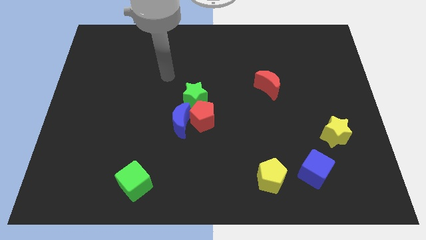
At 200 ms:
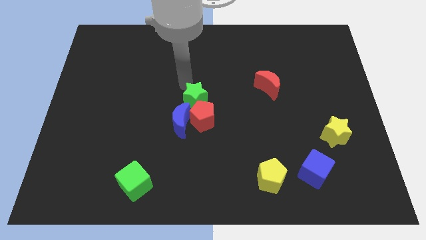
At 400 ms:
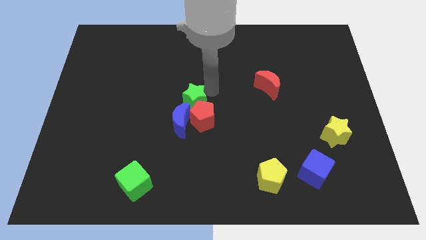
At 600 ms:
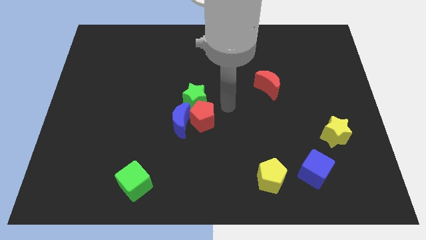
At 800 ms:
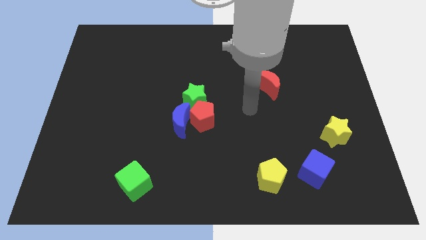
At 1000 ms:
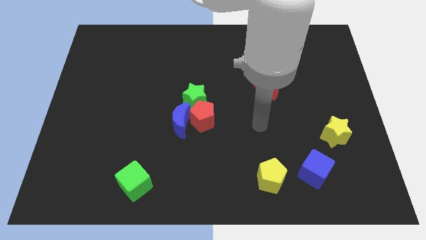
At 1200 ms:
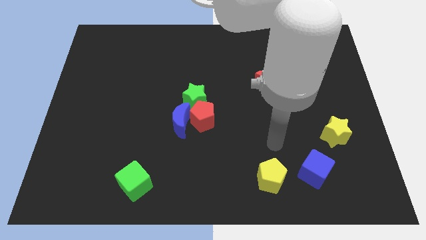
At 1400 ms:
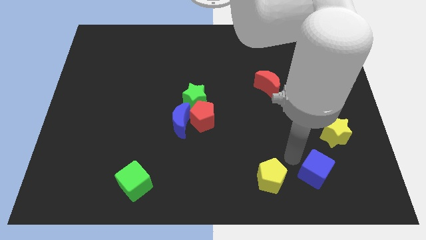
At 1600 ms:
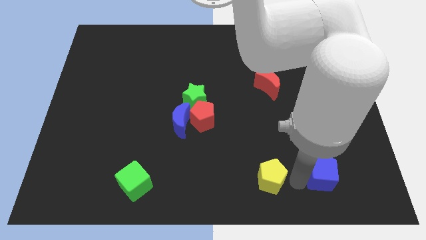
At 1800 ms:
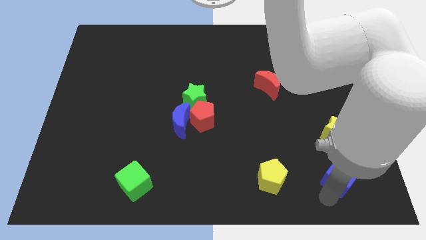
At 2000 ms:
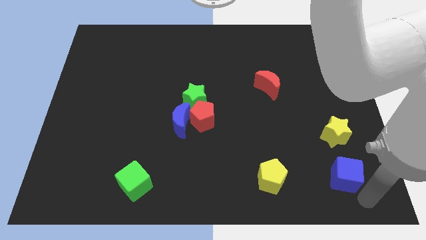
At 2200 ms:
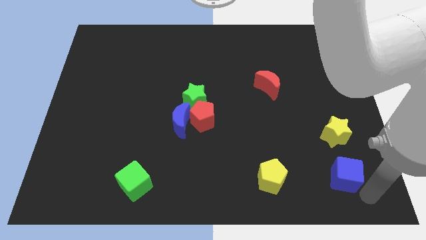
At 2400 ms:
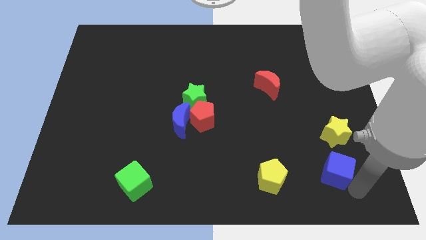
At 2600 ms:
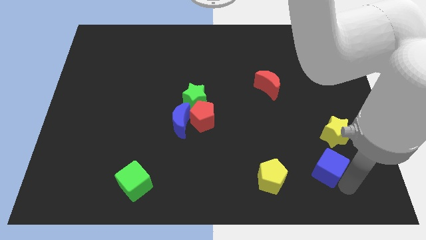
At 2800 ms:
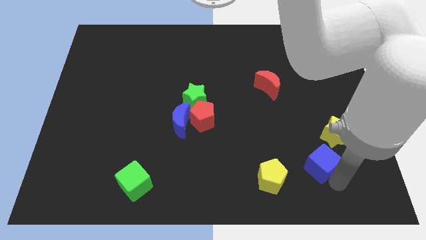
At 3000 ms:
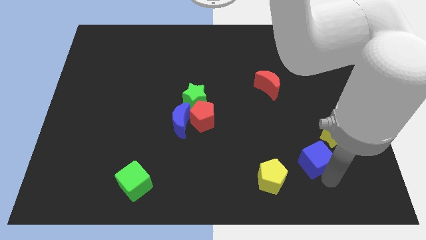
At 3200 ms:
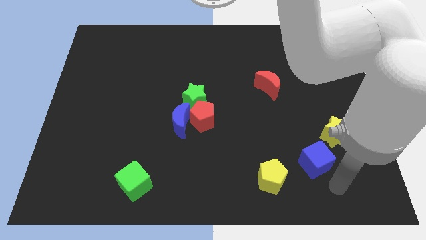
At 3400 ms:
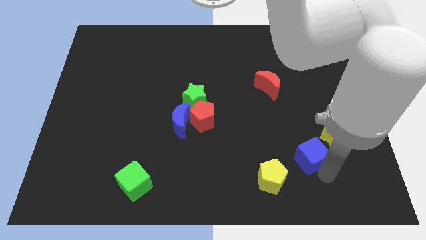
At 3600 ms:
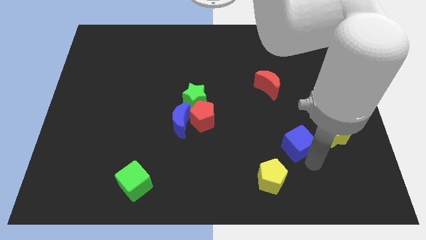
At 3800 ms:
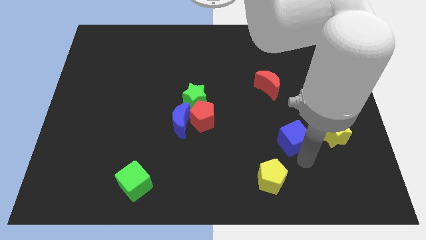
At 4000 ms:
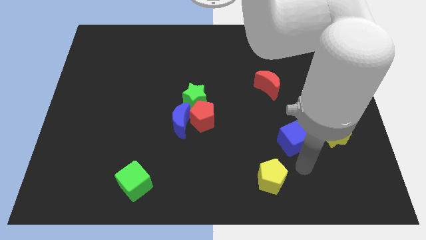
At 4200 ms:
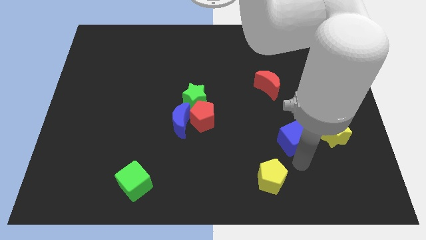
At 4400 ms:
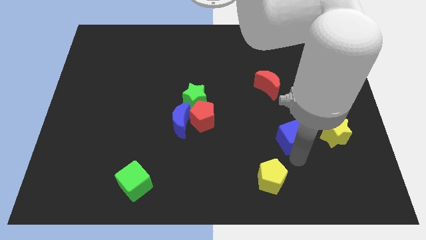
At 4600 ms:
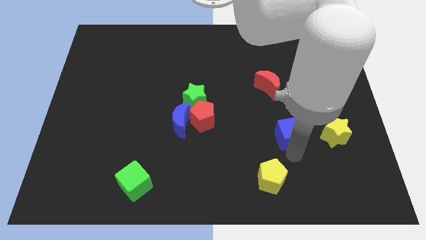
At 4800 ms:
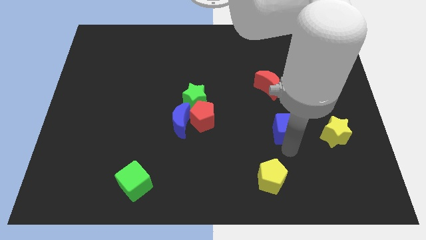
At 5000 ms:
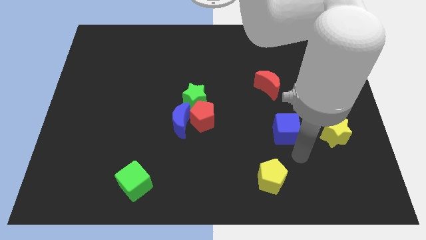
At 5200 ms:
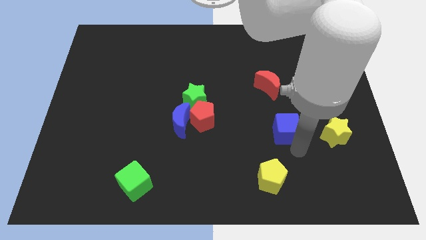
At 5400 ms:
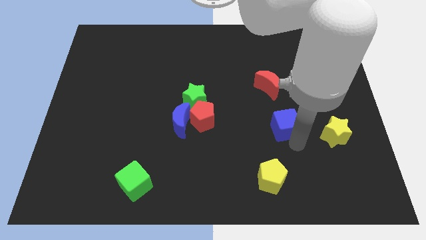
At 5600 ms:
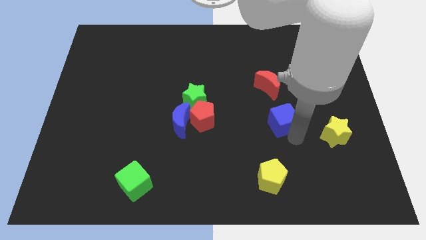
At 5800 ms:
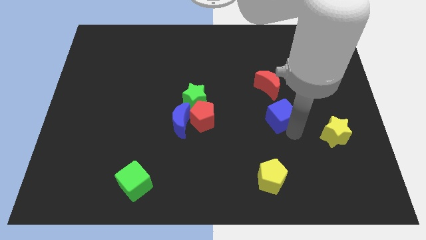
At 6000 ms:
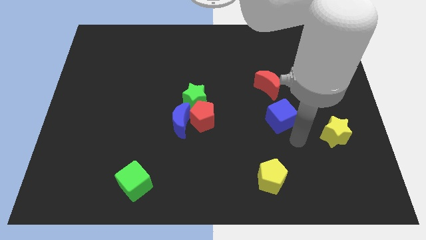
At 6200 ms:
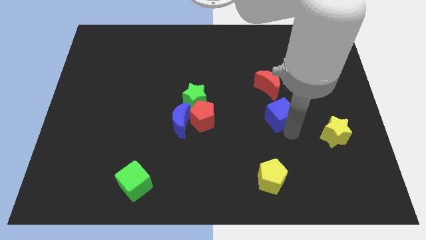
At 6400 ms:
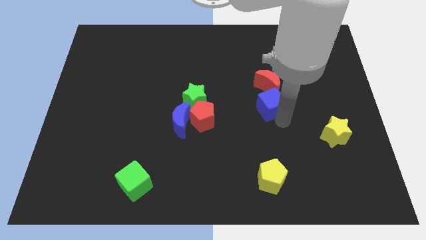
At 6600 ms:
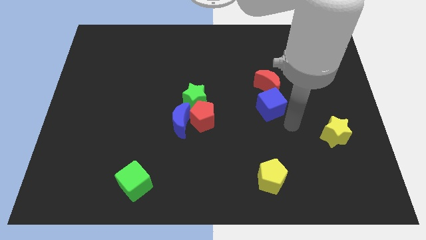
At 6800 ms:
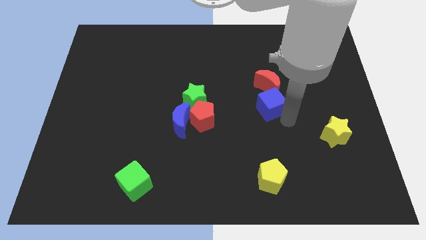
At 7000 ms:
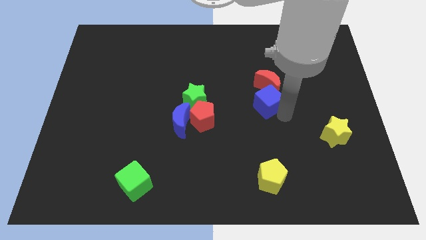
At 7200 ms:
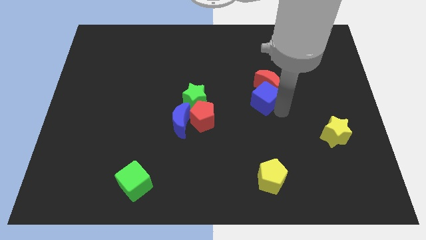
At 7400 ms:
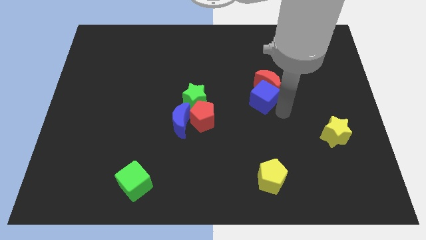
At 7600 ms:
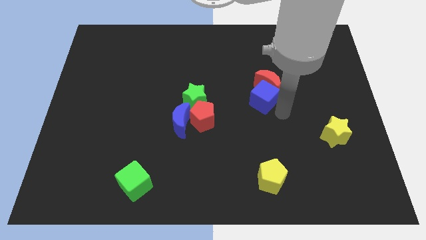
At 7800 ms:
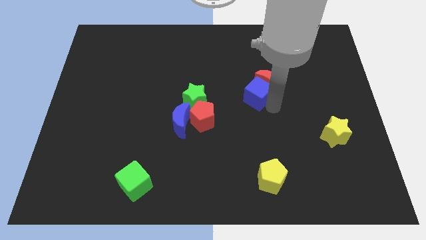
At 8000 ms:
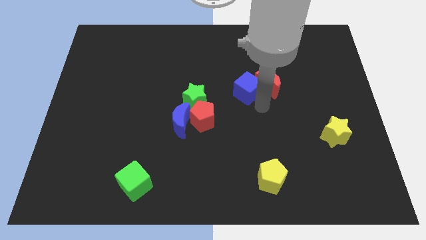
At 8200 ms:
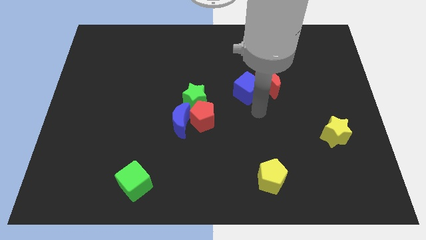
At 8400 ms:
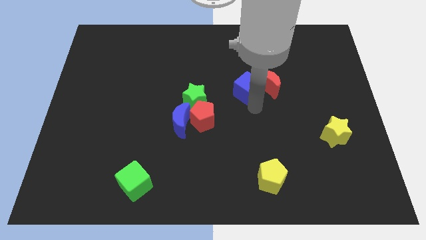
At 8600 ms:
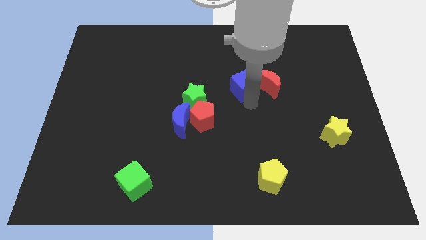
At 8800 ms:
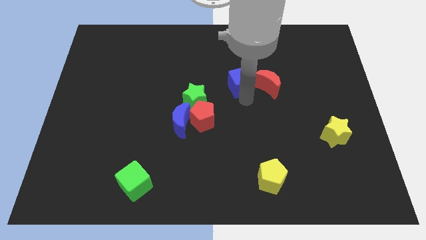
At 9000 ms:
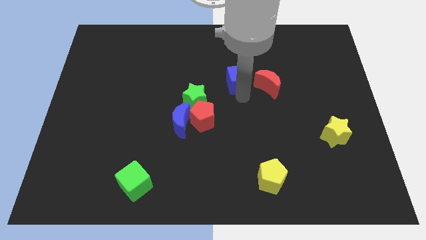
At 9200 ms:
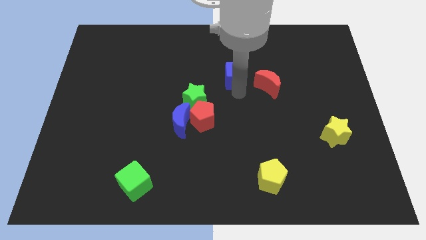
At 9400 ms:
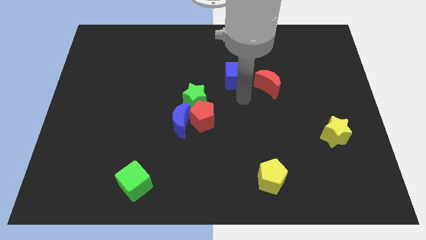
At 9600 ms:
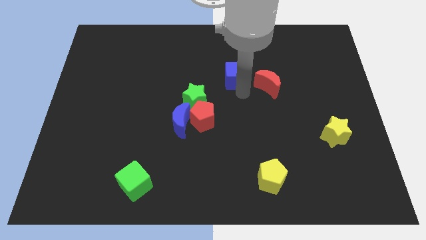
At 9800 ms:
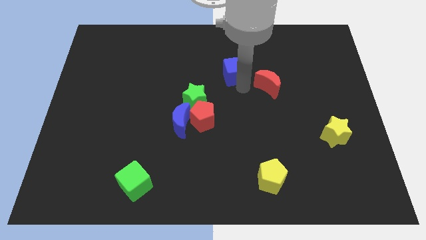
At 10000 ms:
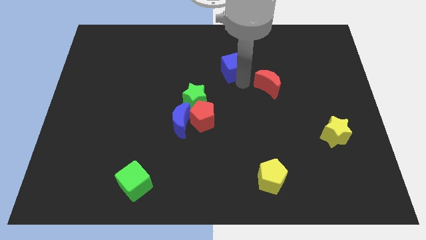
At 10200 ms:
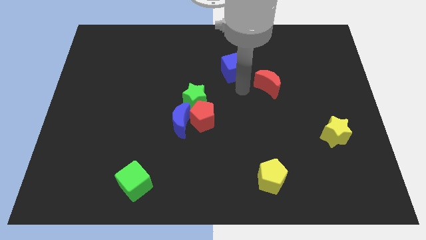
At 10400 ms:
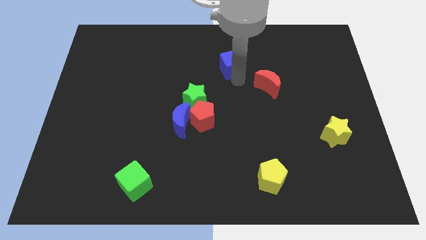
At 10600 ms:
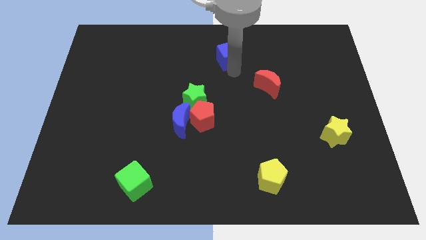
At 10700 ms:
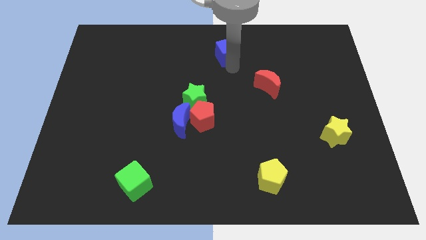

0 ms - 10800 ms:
slide the blue cube to the top side

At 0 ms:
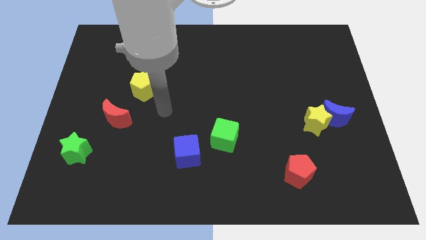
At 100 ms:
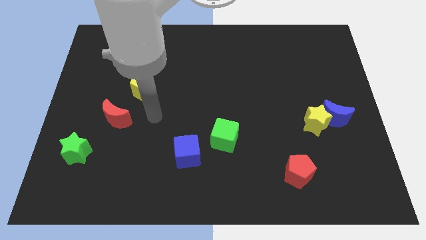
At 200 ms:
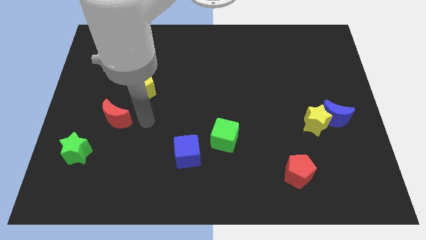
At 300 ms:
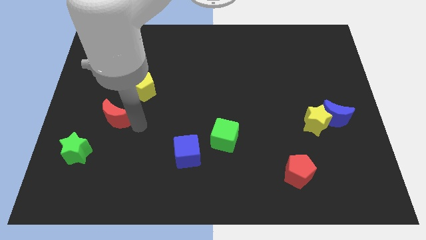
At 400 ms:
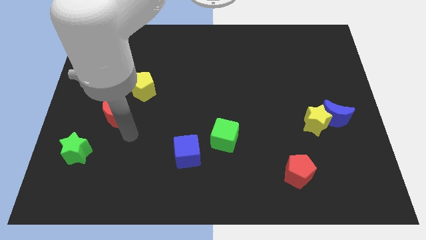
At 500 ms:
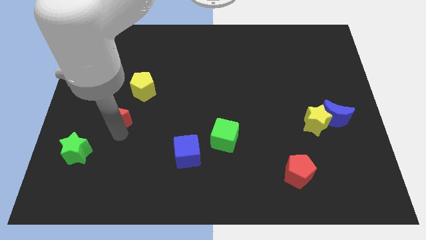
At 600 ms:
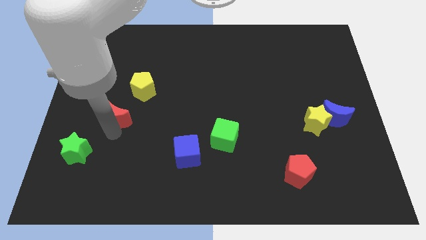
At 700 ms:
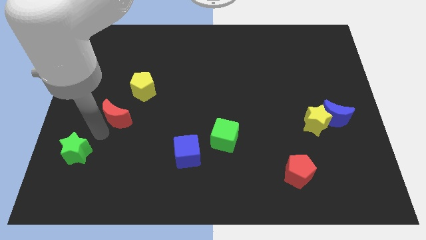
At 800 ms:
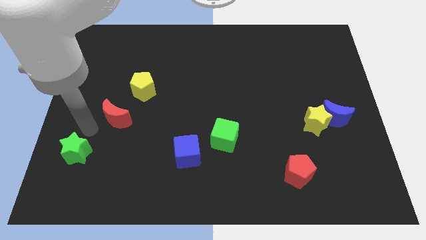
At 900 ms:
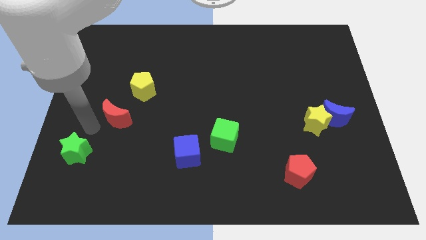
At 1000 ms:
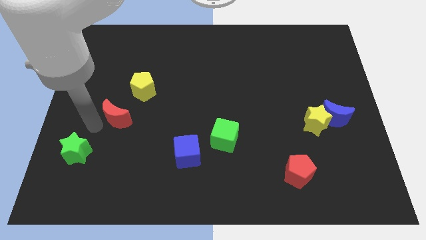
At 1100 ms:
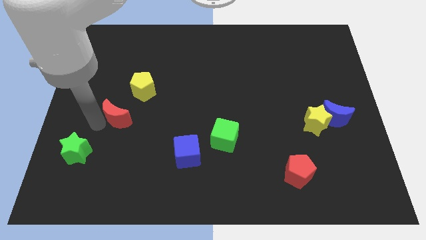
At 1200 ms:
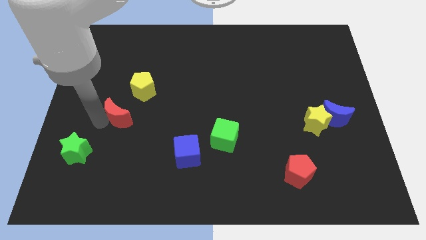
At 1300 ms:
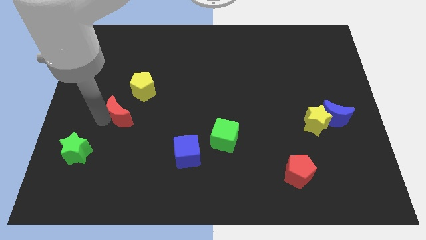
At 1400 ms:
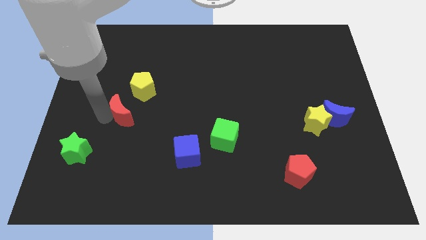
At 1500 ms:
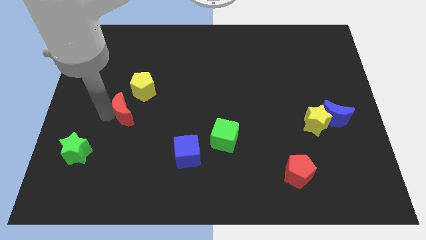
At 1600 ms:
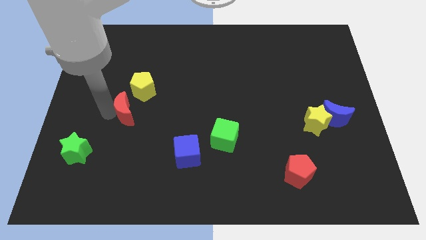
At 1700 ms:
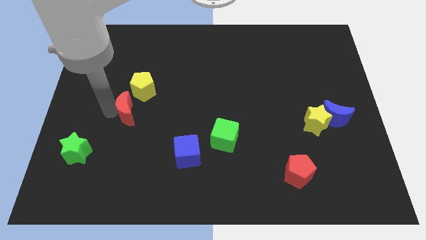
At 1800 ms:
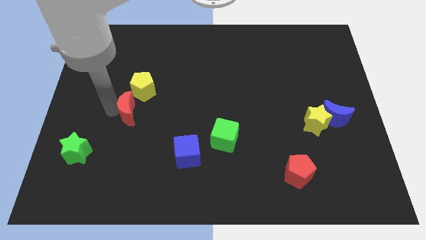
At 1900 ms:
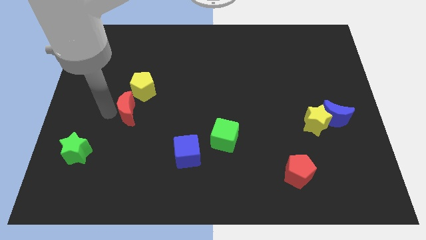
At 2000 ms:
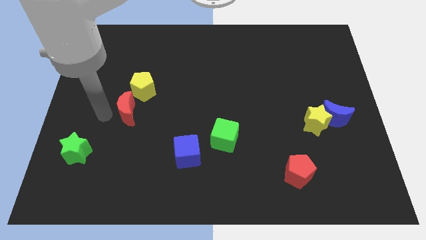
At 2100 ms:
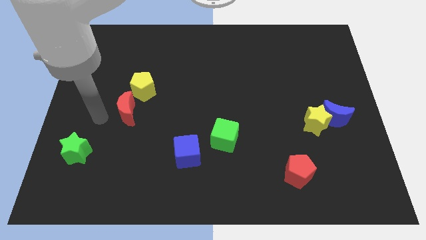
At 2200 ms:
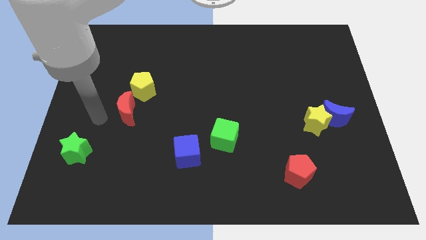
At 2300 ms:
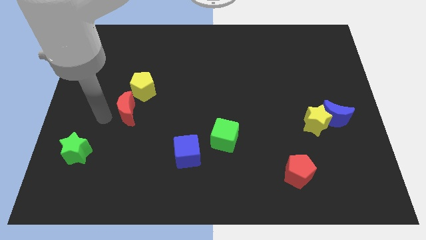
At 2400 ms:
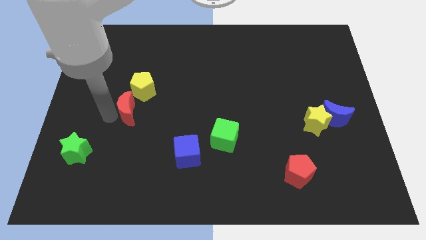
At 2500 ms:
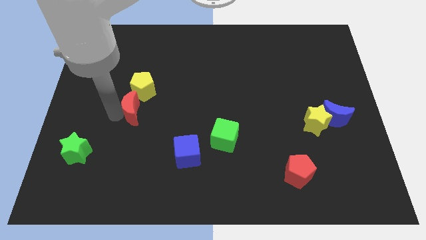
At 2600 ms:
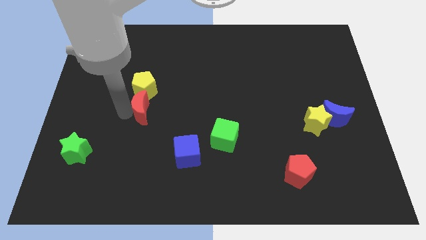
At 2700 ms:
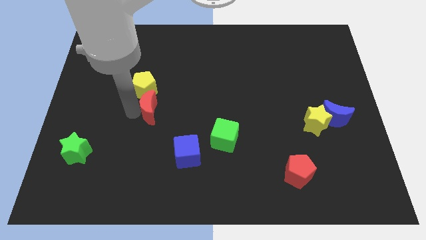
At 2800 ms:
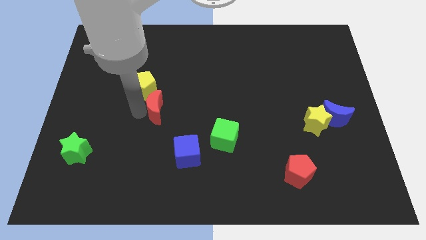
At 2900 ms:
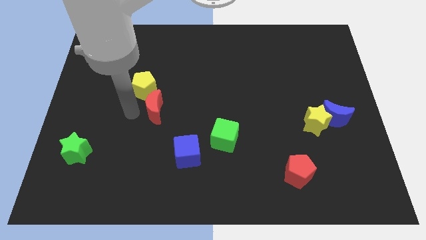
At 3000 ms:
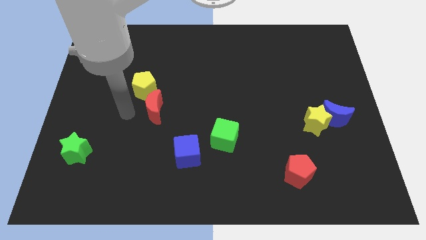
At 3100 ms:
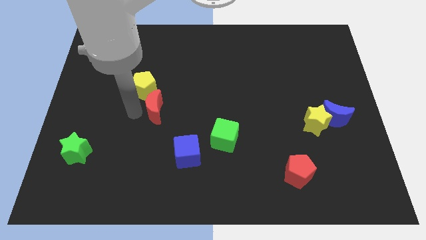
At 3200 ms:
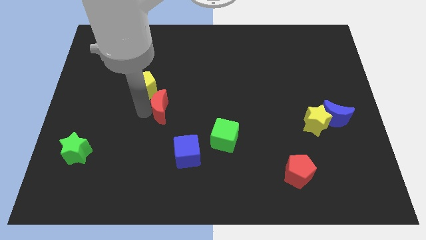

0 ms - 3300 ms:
move the red moon to the center
